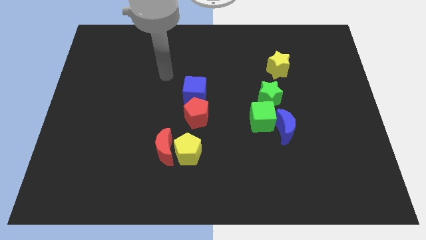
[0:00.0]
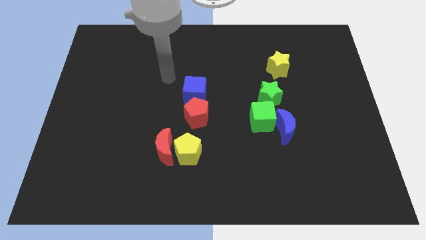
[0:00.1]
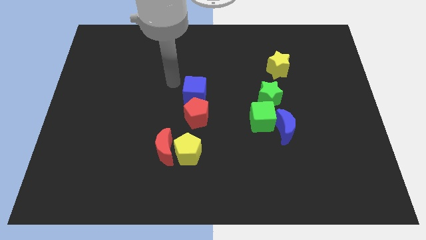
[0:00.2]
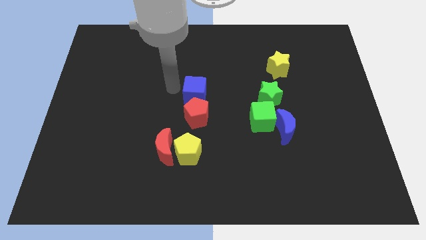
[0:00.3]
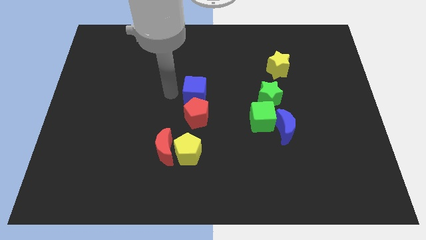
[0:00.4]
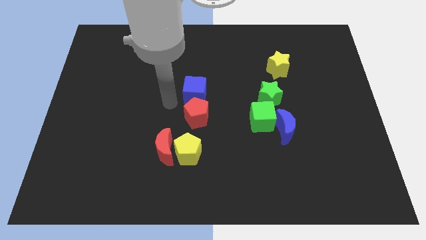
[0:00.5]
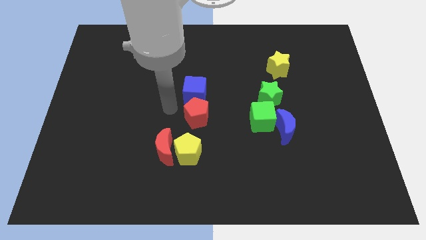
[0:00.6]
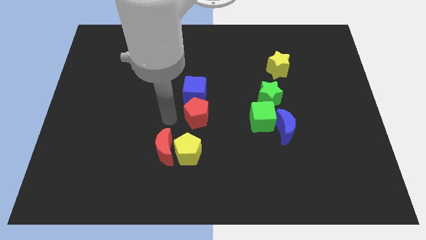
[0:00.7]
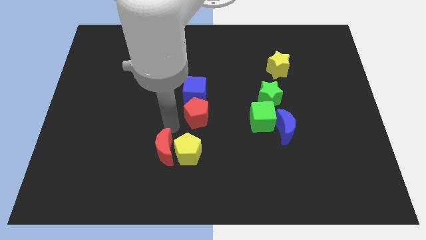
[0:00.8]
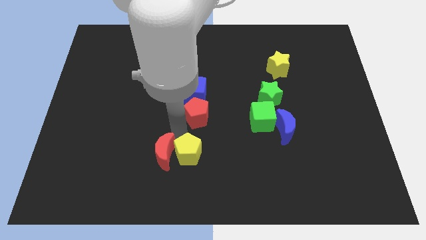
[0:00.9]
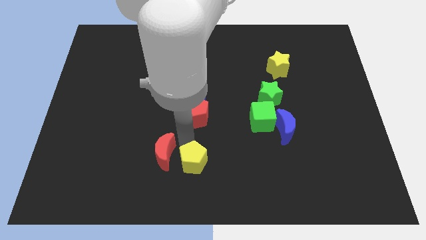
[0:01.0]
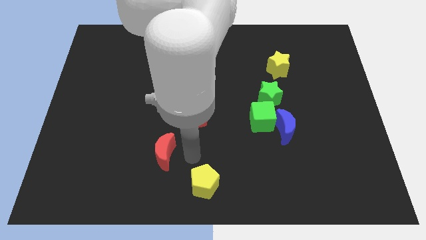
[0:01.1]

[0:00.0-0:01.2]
move the red moon away from the yellow pentagon

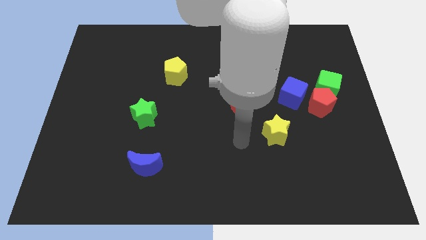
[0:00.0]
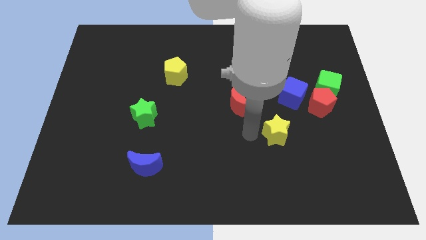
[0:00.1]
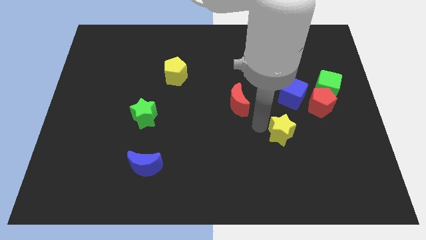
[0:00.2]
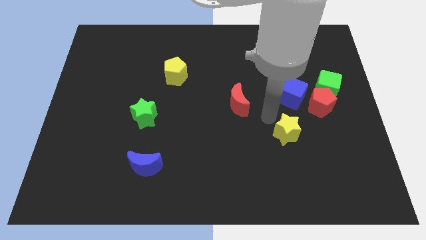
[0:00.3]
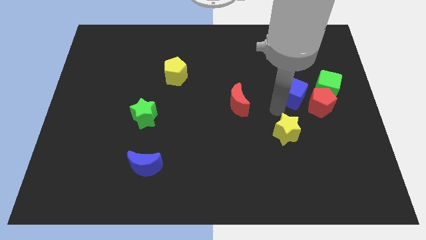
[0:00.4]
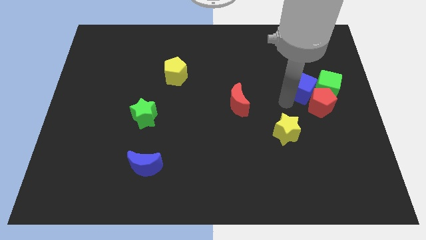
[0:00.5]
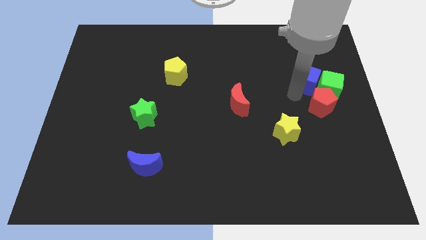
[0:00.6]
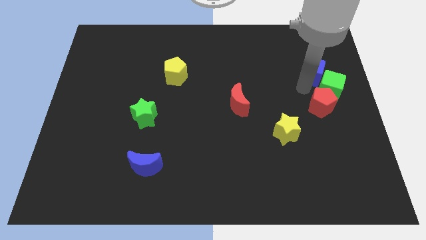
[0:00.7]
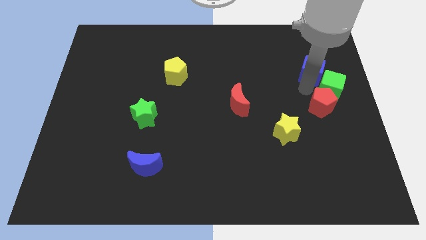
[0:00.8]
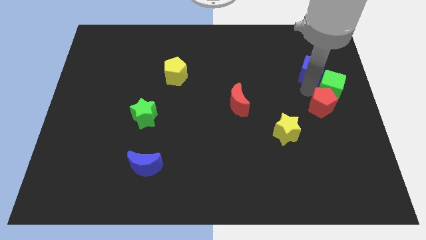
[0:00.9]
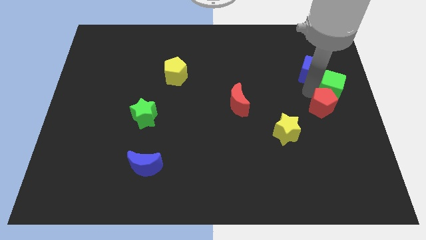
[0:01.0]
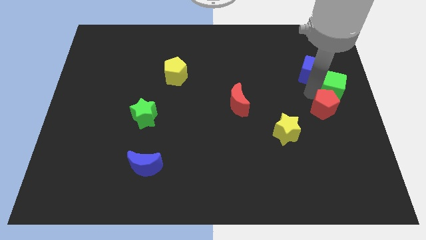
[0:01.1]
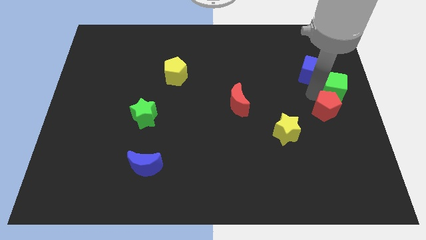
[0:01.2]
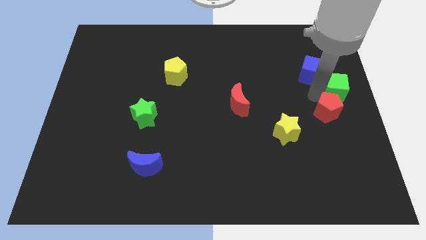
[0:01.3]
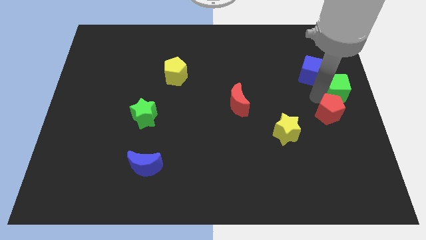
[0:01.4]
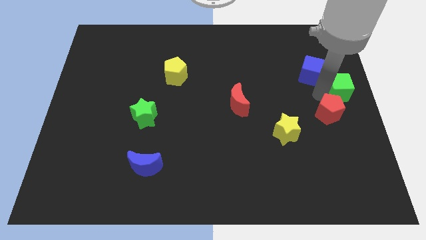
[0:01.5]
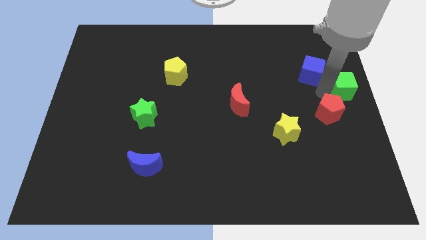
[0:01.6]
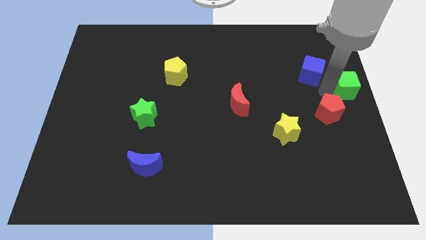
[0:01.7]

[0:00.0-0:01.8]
move the red pentagon away from the green cube and blue cube

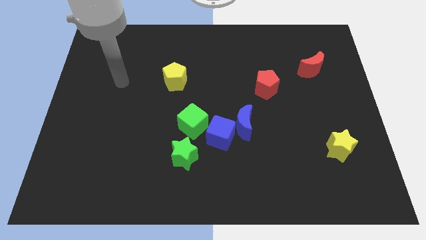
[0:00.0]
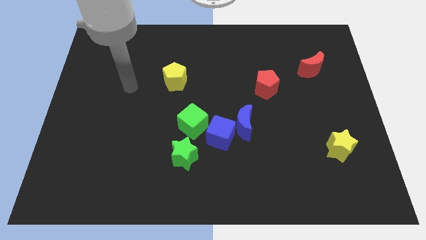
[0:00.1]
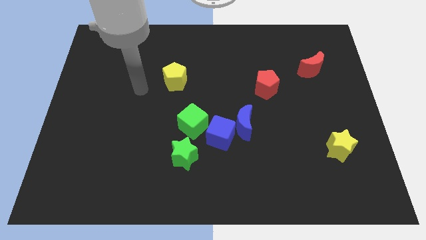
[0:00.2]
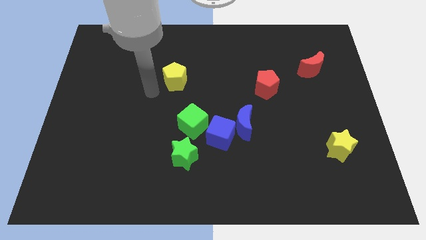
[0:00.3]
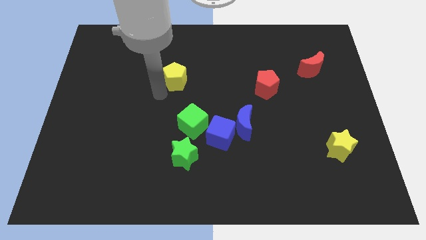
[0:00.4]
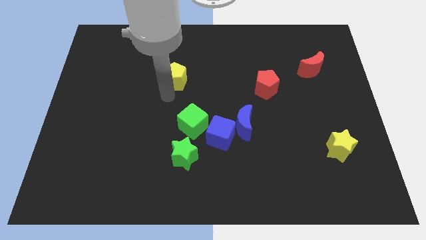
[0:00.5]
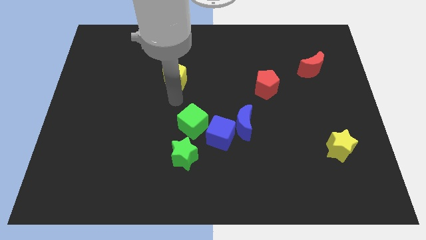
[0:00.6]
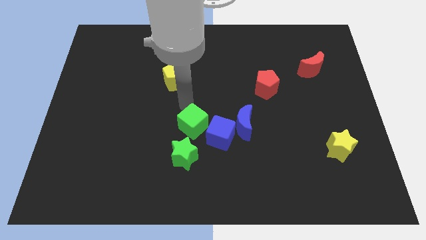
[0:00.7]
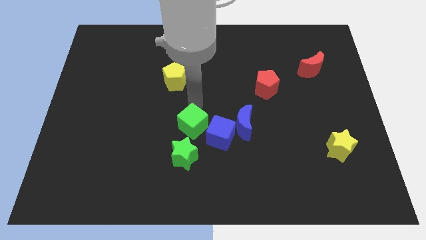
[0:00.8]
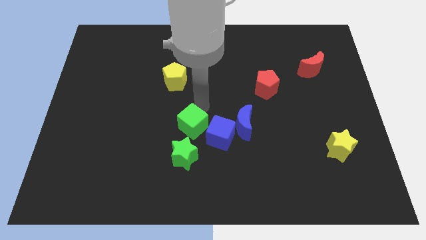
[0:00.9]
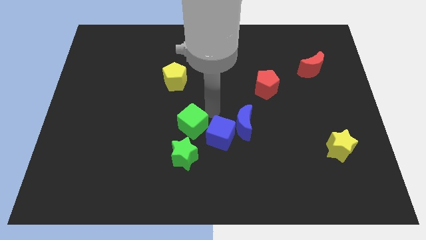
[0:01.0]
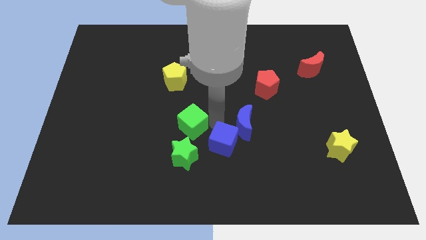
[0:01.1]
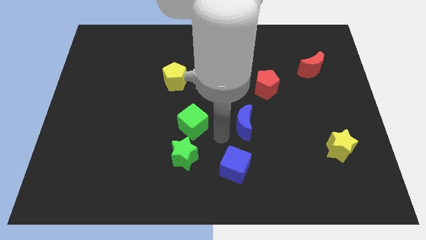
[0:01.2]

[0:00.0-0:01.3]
pull the blue moon apart from the blue cube

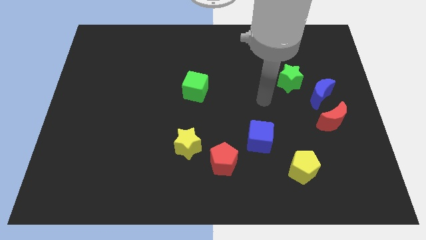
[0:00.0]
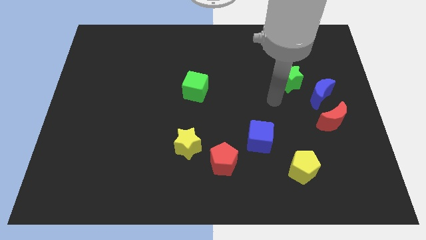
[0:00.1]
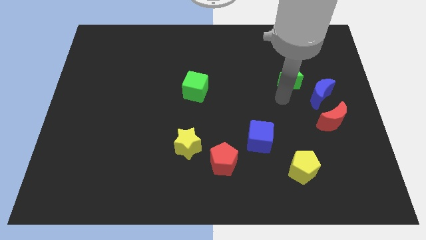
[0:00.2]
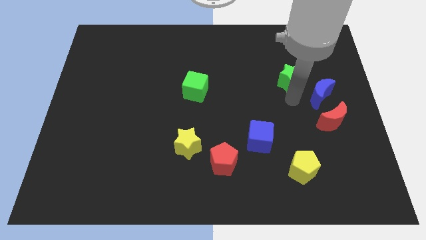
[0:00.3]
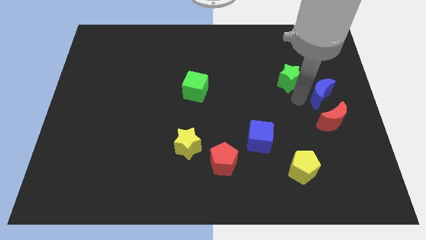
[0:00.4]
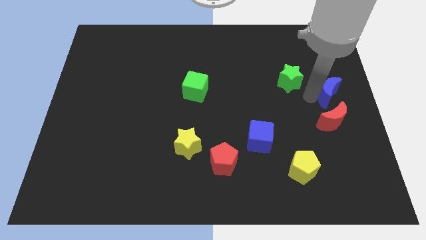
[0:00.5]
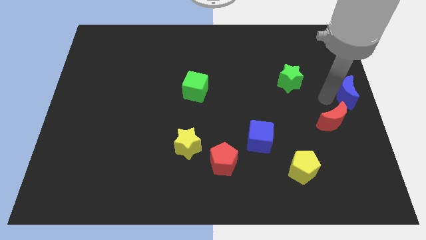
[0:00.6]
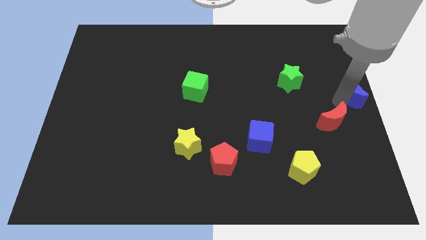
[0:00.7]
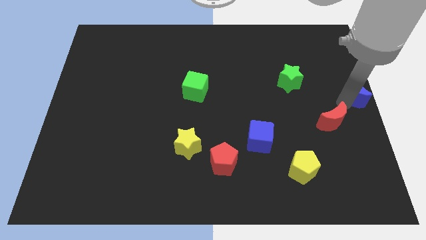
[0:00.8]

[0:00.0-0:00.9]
move the red moon away from the blue moon

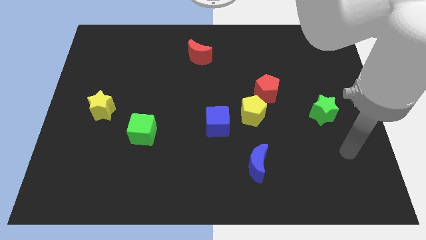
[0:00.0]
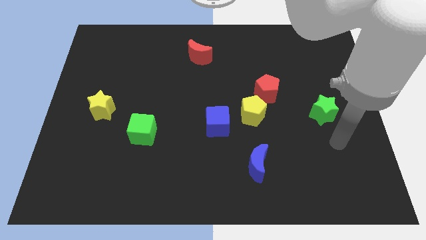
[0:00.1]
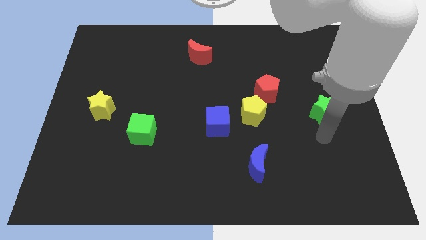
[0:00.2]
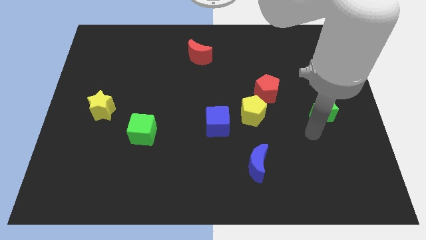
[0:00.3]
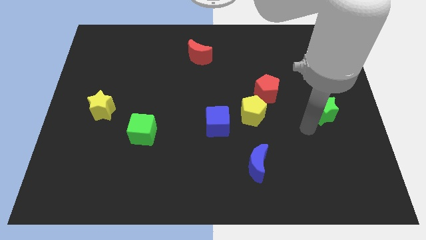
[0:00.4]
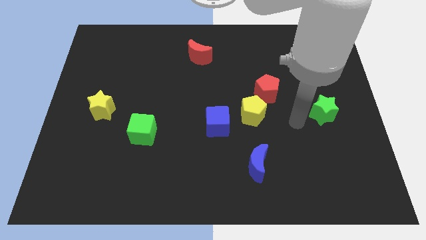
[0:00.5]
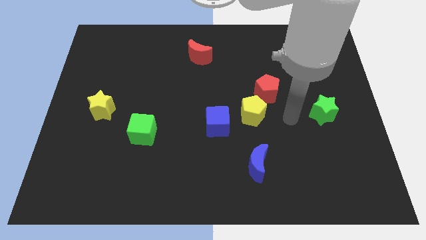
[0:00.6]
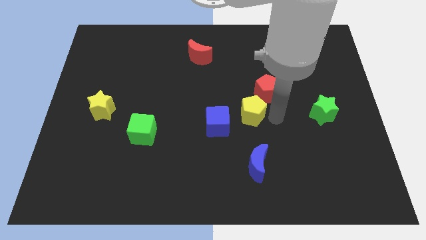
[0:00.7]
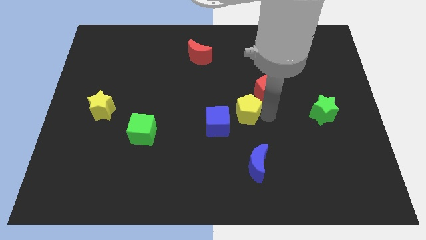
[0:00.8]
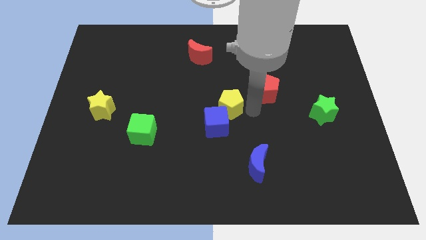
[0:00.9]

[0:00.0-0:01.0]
move the red pentagon away from the yellow pentagon

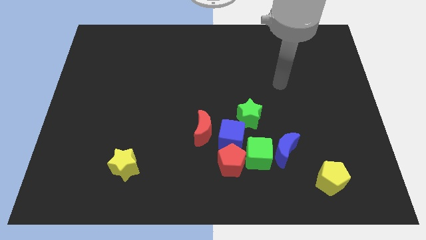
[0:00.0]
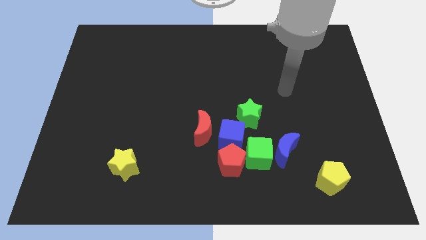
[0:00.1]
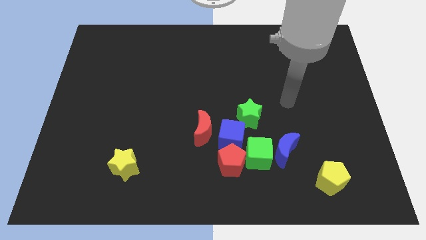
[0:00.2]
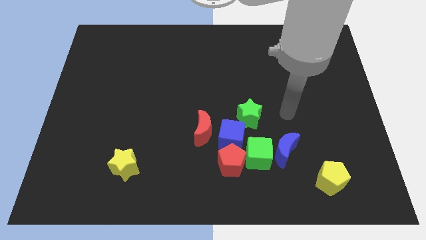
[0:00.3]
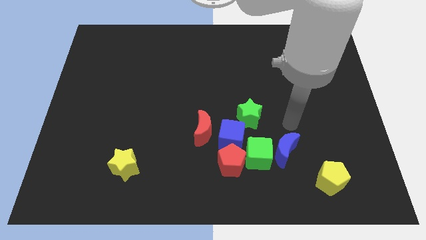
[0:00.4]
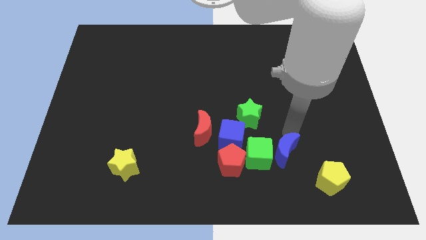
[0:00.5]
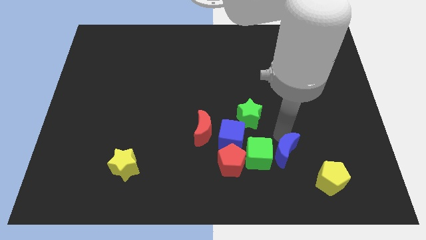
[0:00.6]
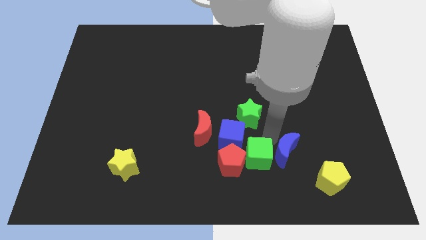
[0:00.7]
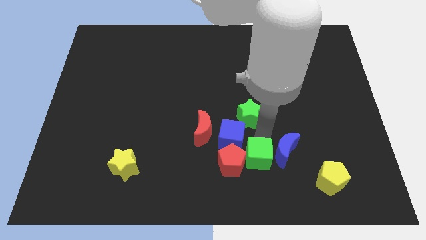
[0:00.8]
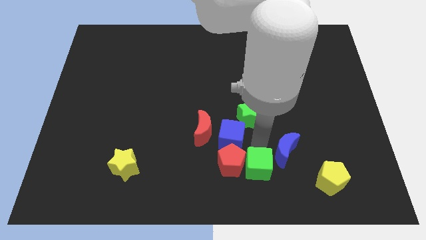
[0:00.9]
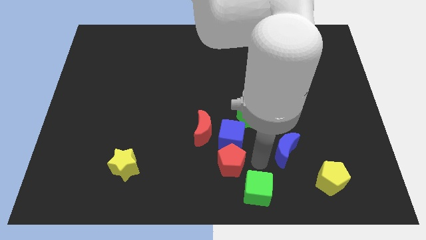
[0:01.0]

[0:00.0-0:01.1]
pull the blue moon apart from the green cube

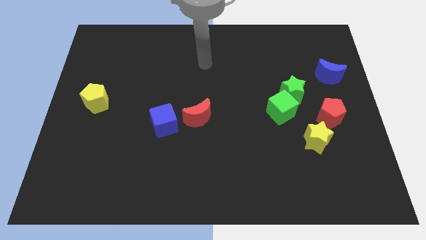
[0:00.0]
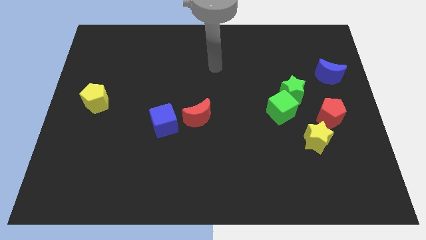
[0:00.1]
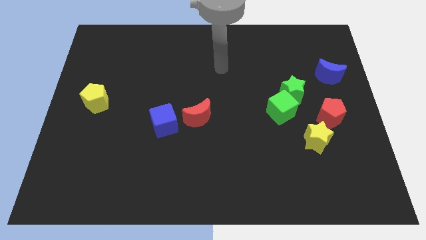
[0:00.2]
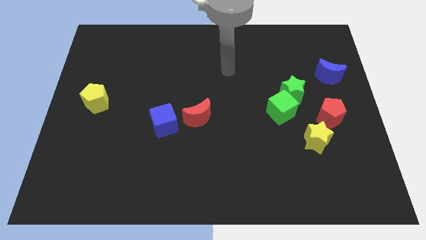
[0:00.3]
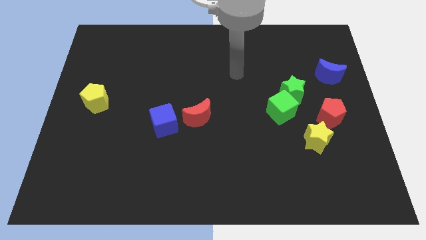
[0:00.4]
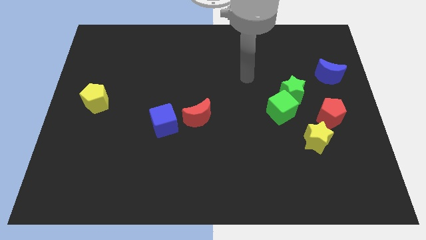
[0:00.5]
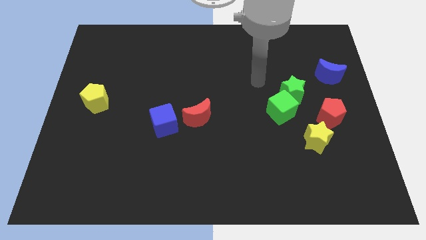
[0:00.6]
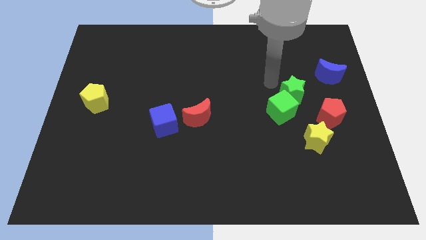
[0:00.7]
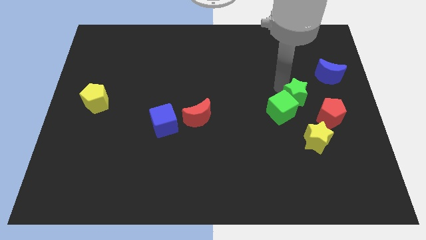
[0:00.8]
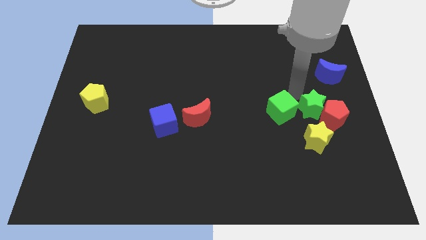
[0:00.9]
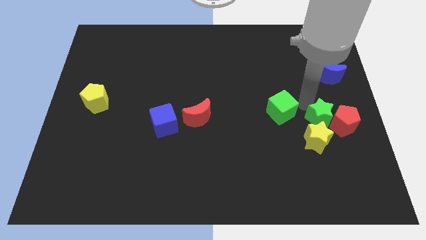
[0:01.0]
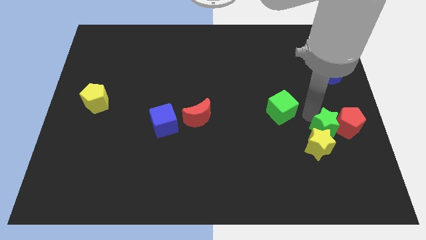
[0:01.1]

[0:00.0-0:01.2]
move the green cube away from the green star

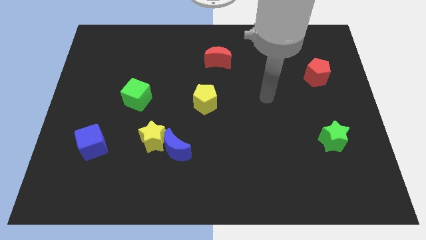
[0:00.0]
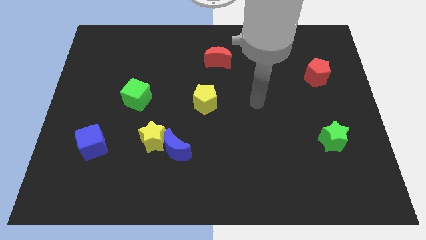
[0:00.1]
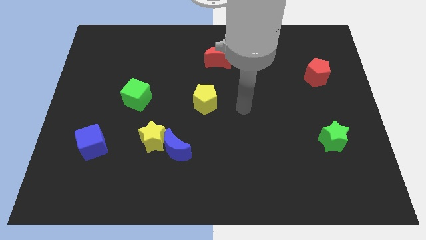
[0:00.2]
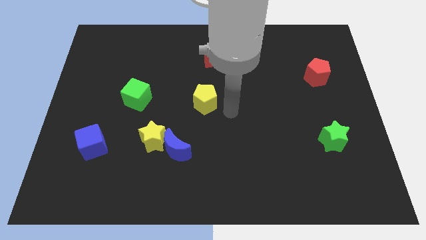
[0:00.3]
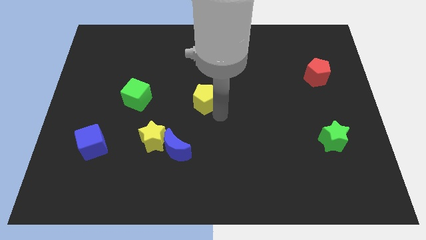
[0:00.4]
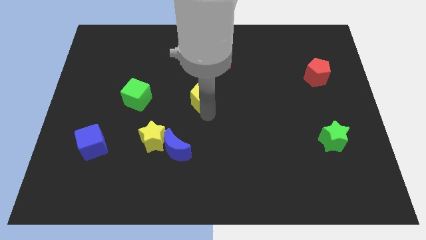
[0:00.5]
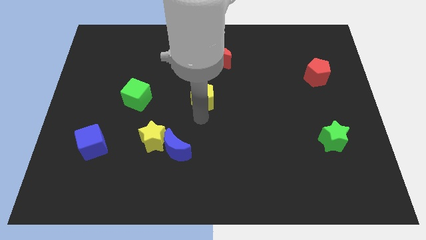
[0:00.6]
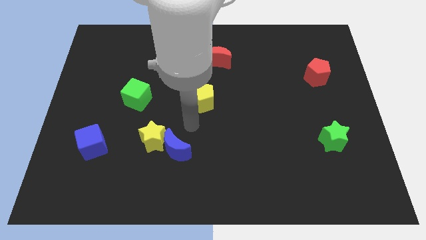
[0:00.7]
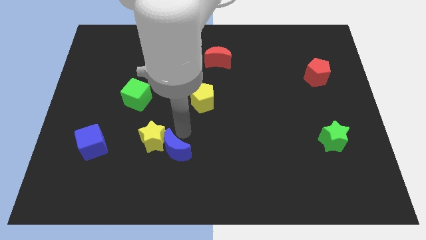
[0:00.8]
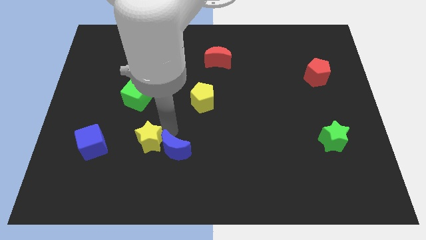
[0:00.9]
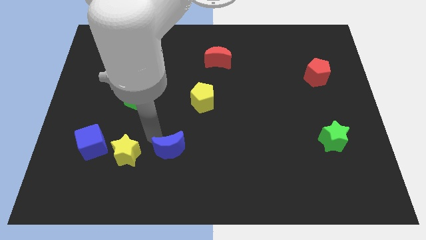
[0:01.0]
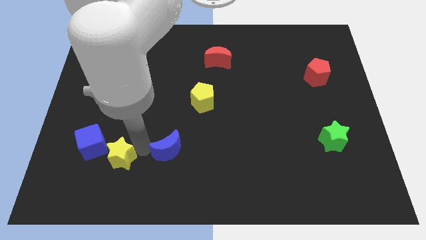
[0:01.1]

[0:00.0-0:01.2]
separate the blue moon from the yellow star
